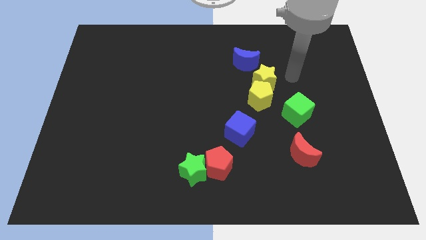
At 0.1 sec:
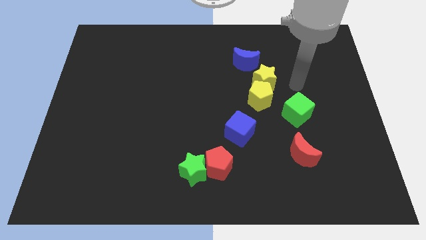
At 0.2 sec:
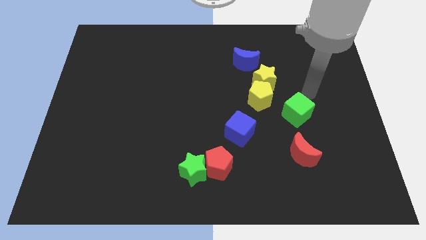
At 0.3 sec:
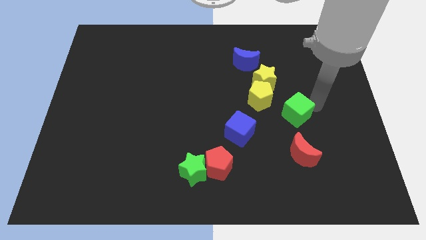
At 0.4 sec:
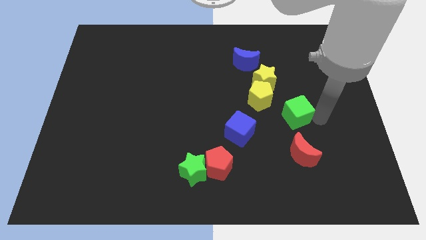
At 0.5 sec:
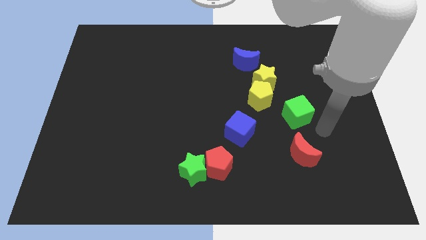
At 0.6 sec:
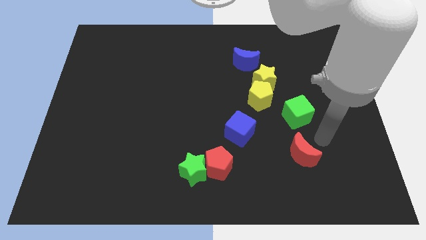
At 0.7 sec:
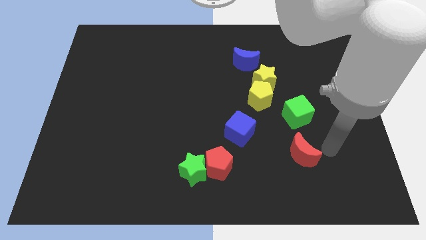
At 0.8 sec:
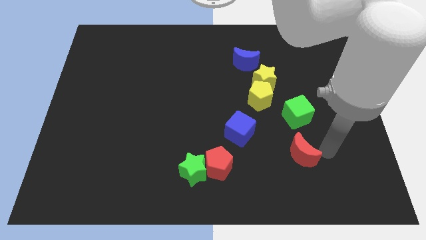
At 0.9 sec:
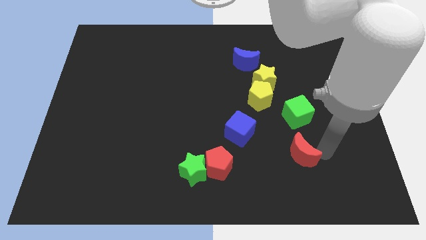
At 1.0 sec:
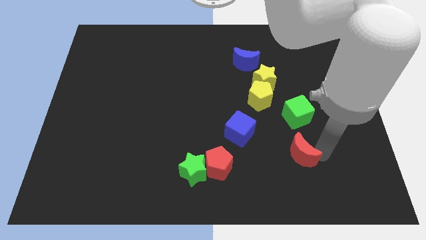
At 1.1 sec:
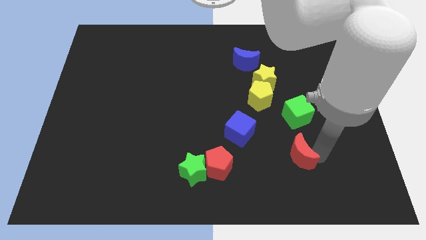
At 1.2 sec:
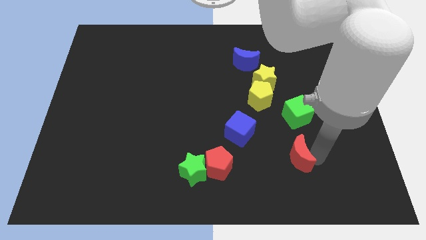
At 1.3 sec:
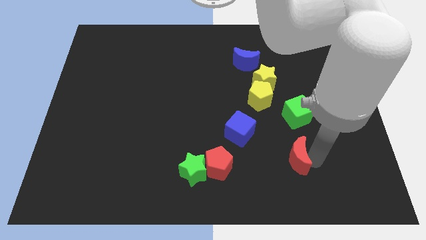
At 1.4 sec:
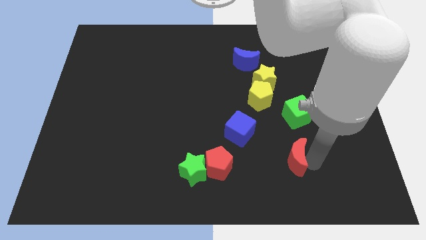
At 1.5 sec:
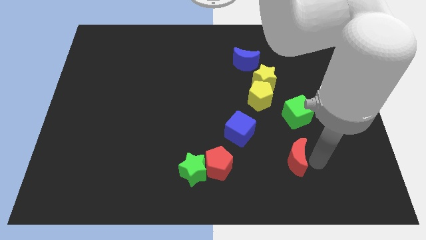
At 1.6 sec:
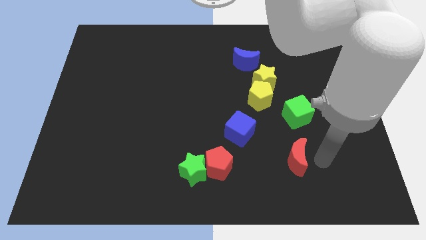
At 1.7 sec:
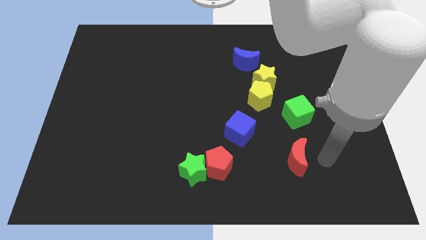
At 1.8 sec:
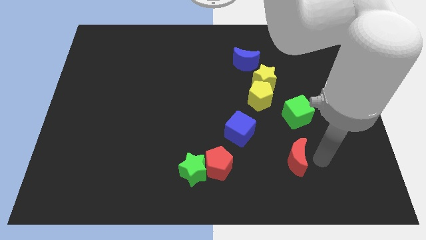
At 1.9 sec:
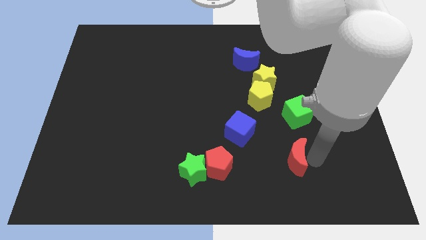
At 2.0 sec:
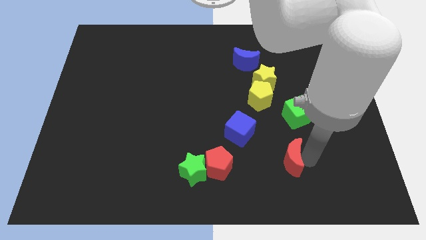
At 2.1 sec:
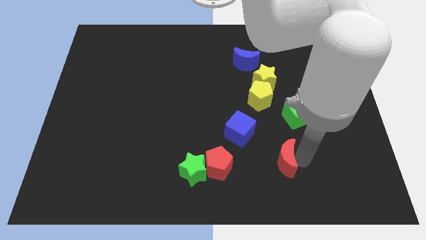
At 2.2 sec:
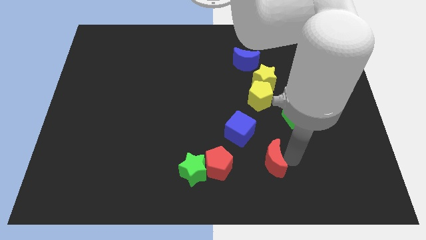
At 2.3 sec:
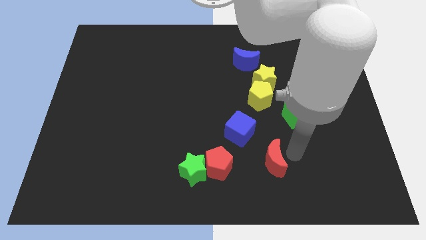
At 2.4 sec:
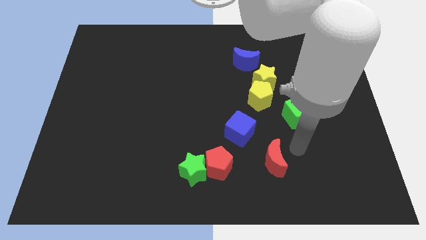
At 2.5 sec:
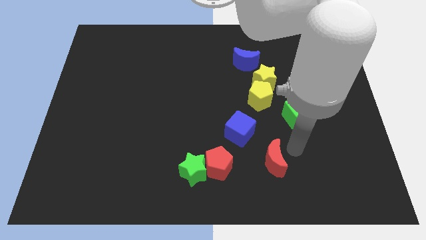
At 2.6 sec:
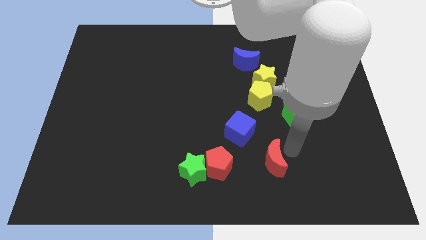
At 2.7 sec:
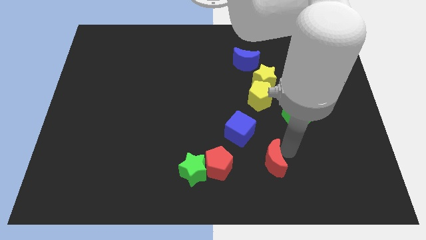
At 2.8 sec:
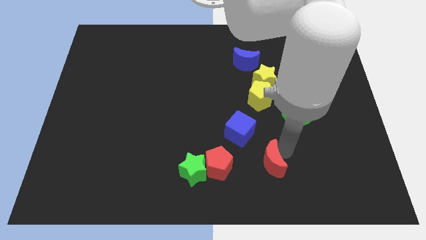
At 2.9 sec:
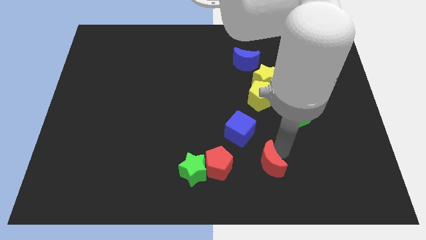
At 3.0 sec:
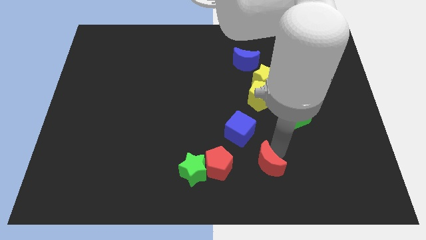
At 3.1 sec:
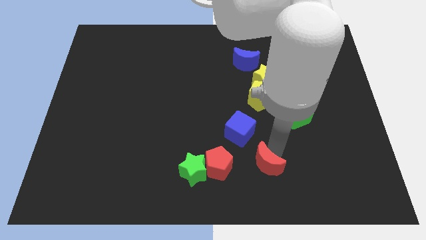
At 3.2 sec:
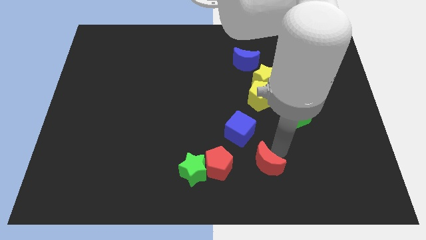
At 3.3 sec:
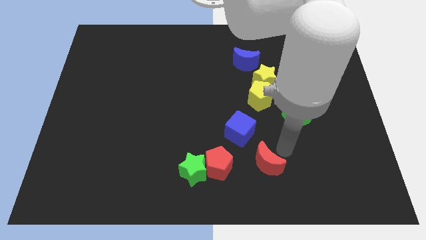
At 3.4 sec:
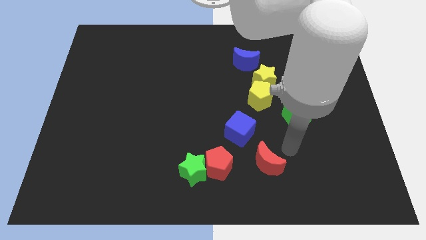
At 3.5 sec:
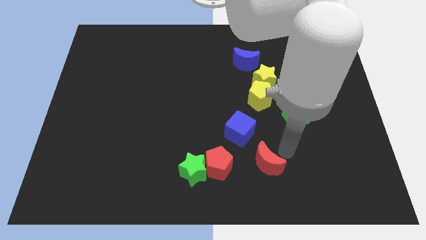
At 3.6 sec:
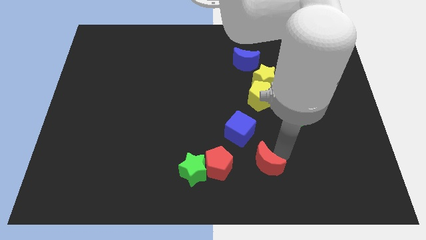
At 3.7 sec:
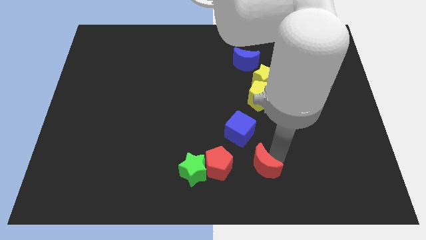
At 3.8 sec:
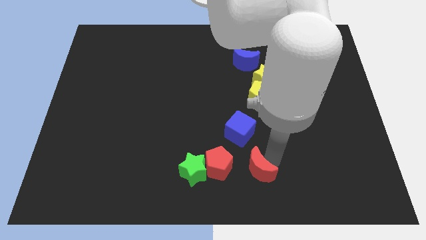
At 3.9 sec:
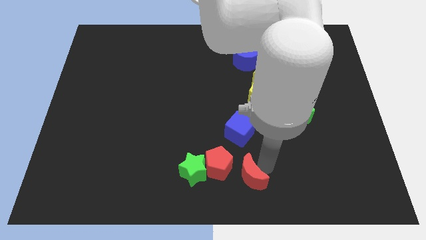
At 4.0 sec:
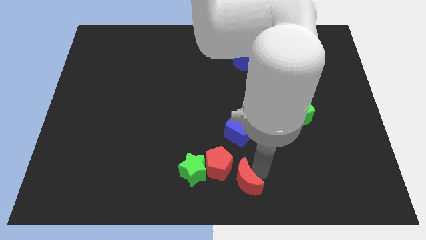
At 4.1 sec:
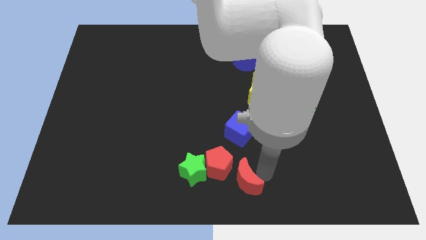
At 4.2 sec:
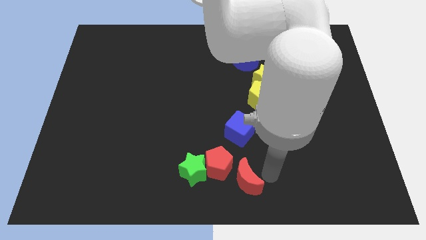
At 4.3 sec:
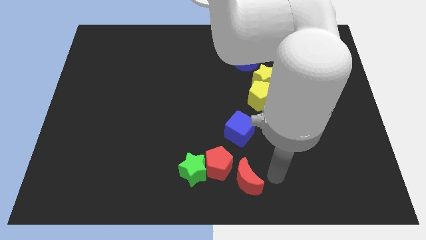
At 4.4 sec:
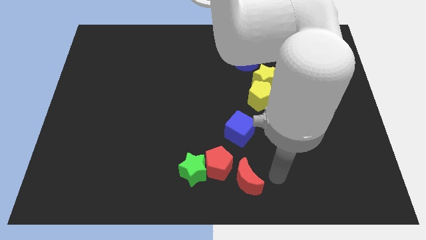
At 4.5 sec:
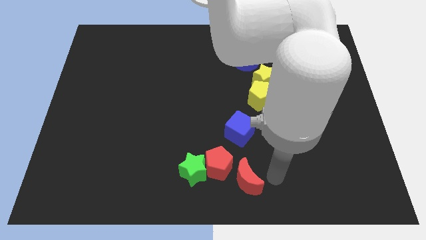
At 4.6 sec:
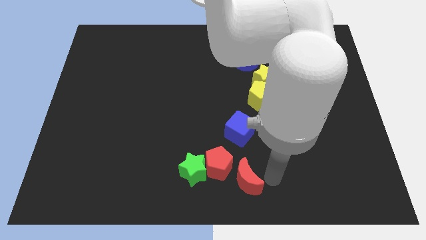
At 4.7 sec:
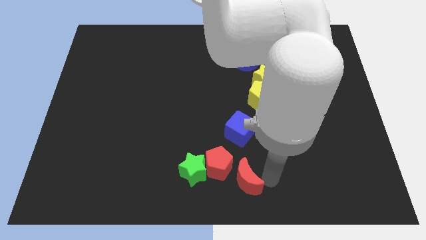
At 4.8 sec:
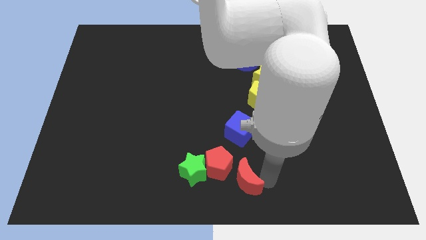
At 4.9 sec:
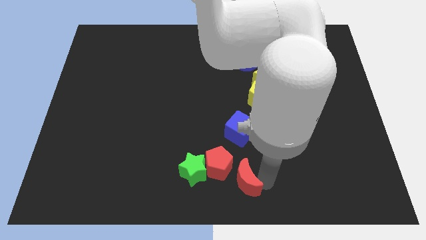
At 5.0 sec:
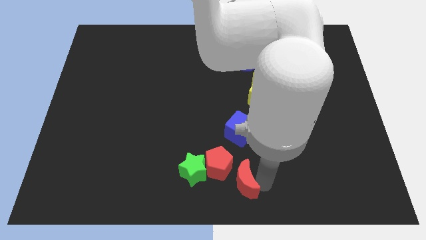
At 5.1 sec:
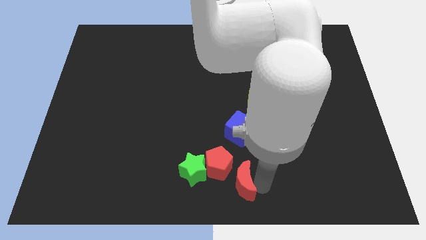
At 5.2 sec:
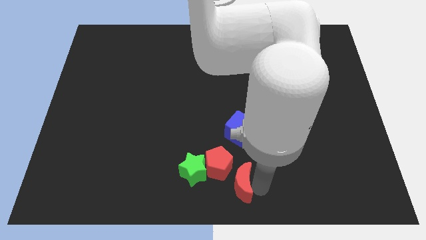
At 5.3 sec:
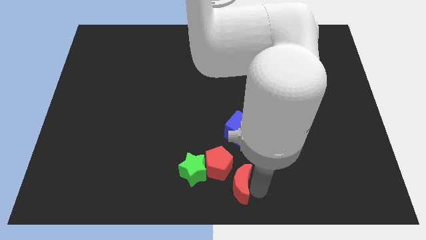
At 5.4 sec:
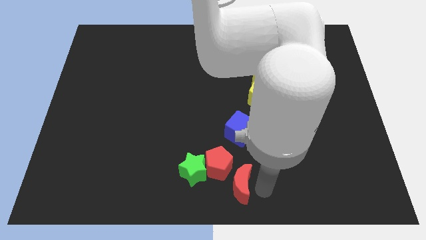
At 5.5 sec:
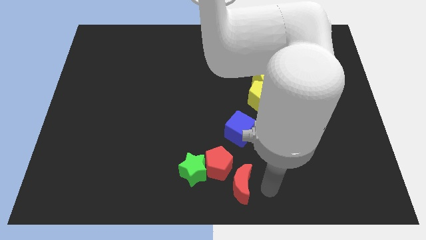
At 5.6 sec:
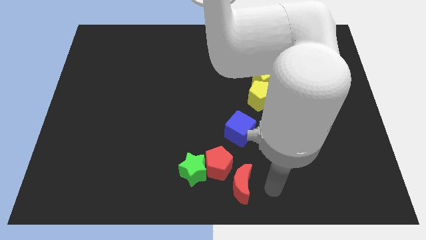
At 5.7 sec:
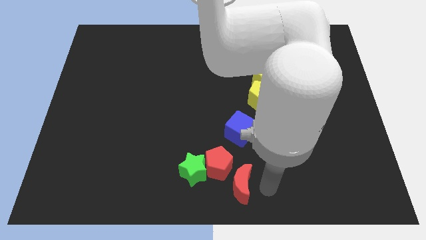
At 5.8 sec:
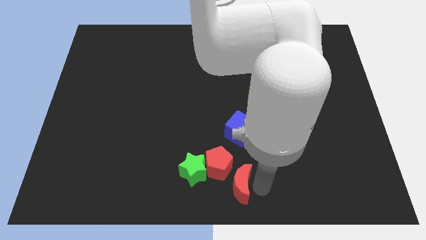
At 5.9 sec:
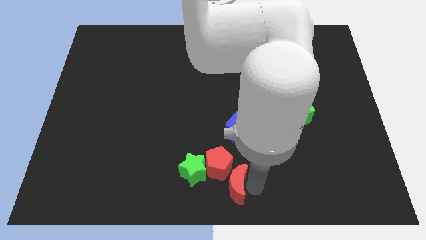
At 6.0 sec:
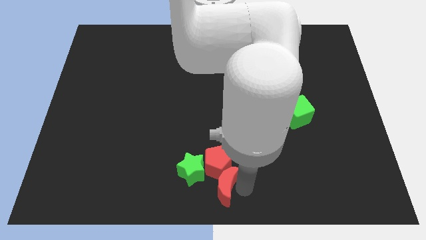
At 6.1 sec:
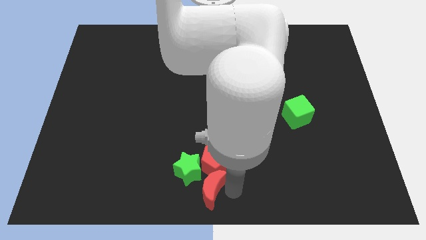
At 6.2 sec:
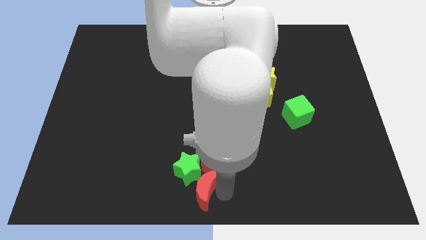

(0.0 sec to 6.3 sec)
push the red moon towards the green star
